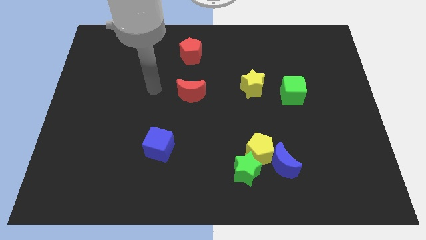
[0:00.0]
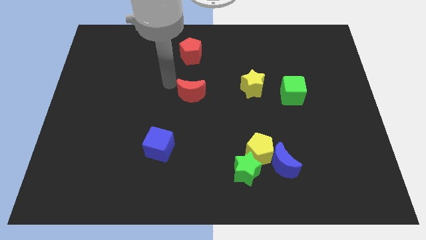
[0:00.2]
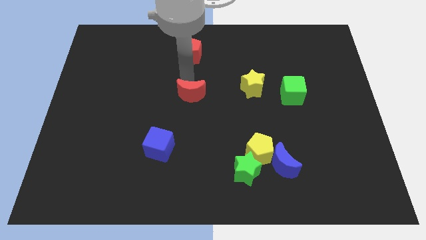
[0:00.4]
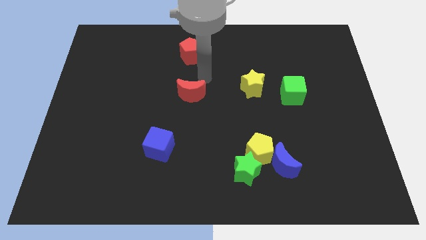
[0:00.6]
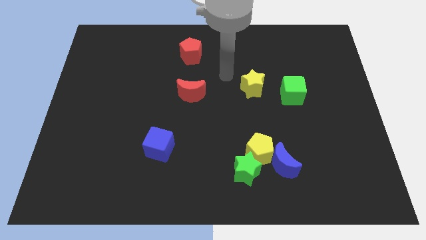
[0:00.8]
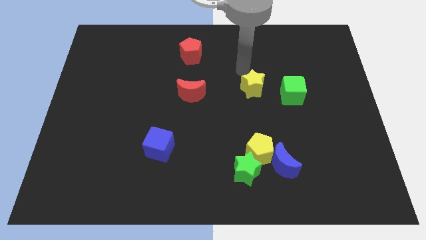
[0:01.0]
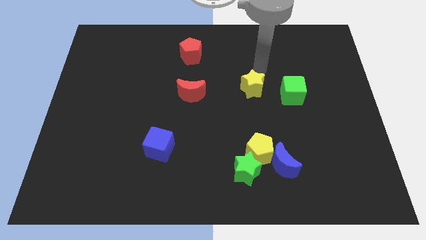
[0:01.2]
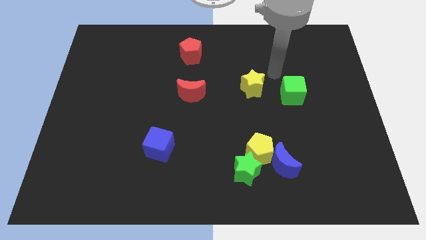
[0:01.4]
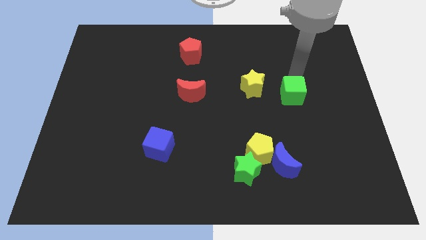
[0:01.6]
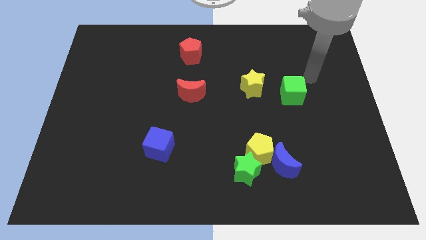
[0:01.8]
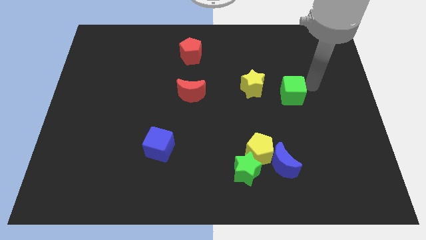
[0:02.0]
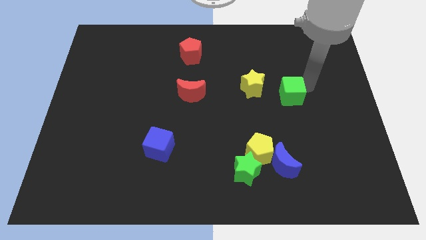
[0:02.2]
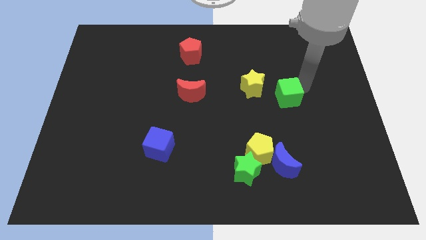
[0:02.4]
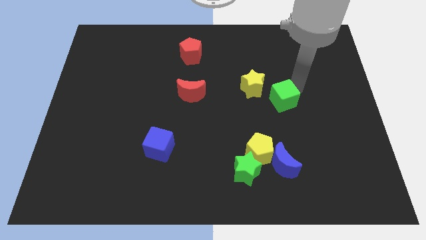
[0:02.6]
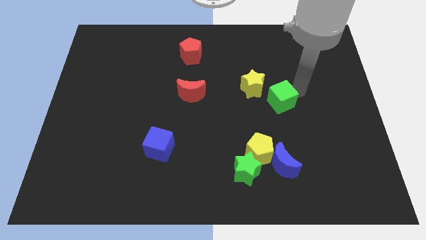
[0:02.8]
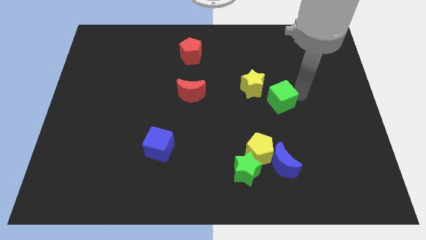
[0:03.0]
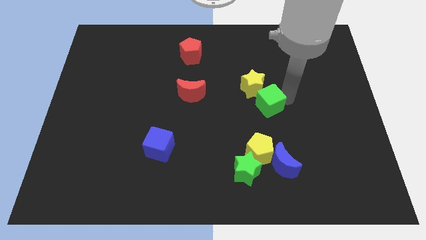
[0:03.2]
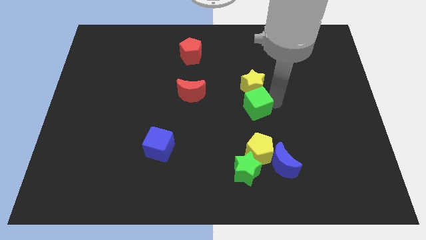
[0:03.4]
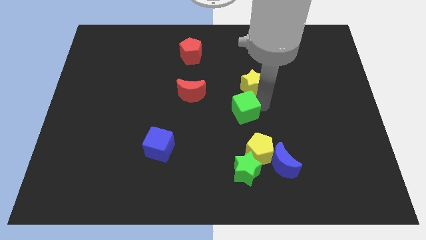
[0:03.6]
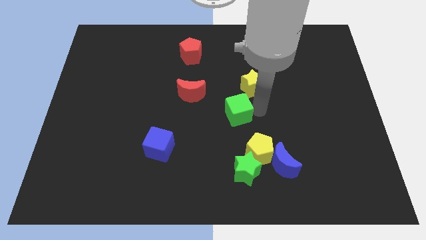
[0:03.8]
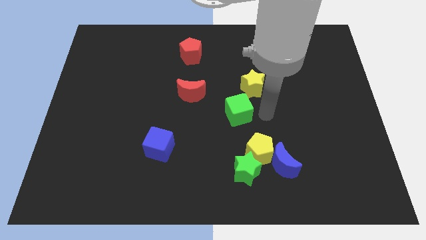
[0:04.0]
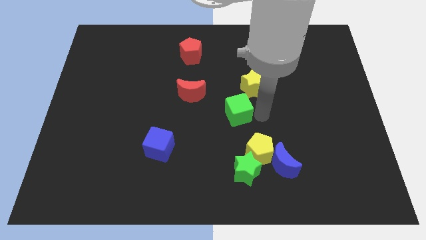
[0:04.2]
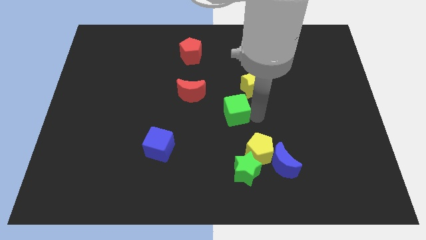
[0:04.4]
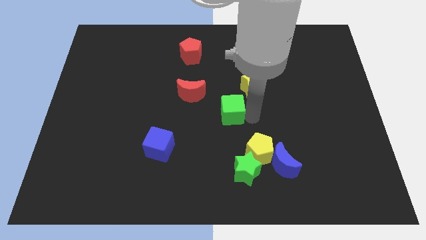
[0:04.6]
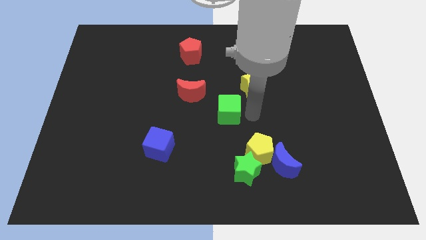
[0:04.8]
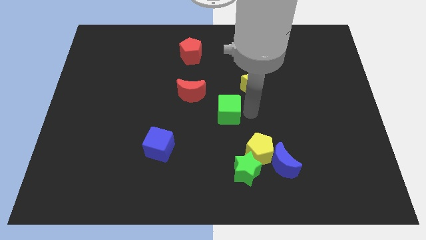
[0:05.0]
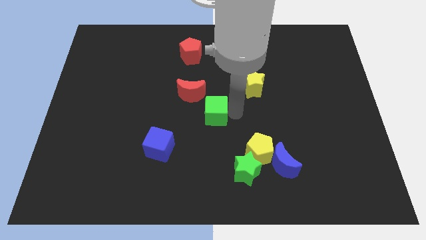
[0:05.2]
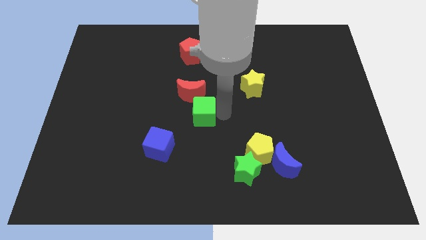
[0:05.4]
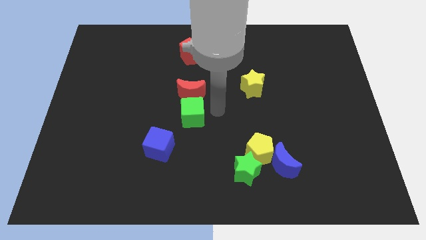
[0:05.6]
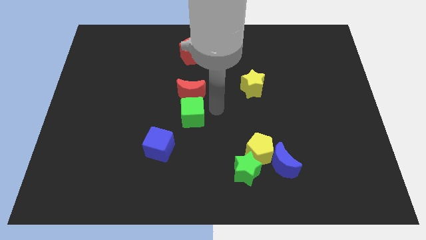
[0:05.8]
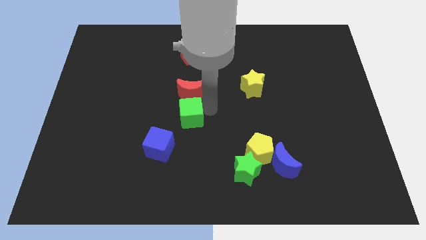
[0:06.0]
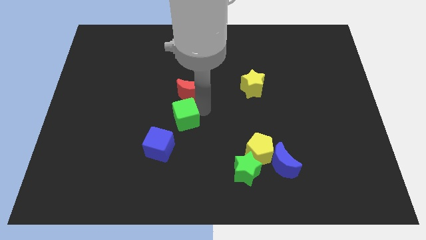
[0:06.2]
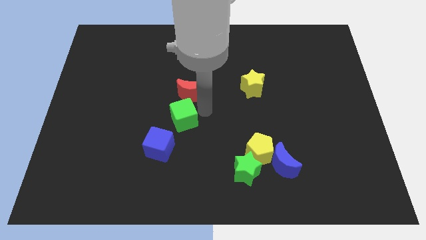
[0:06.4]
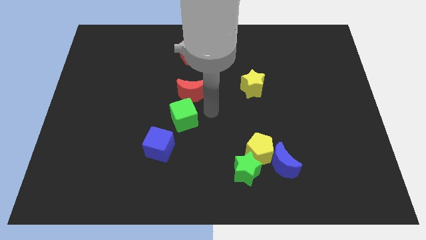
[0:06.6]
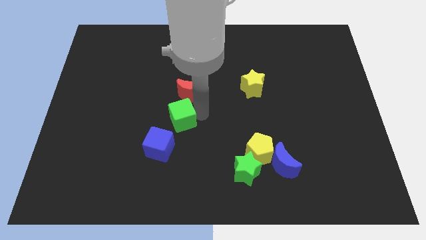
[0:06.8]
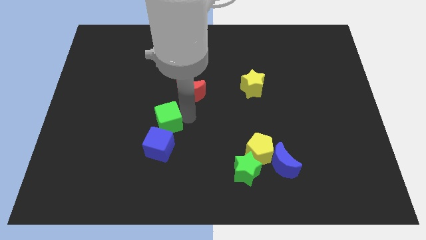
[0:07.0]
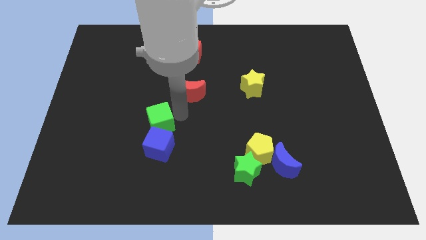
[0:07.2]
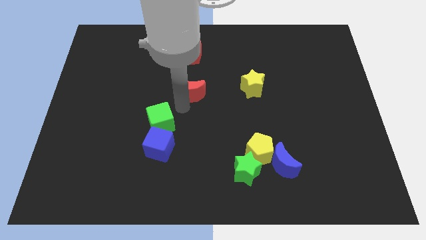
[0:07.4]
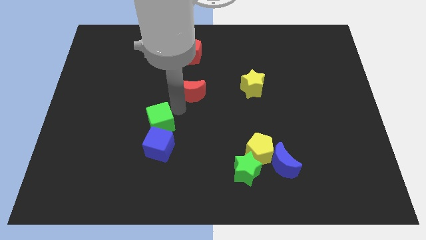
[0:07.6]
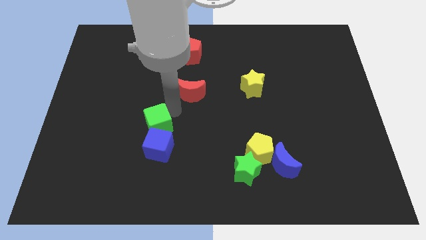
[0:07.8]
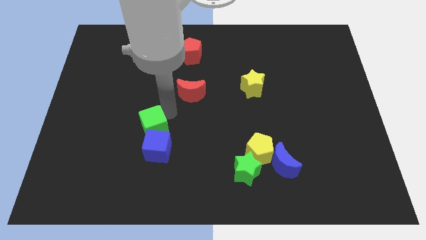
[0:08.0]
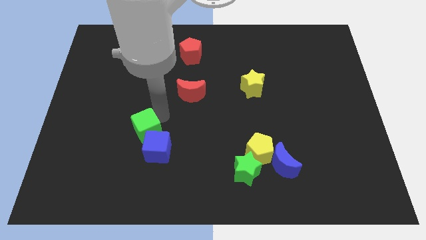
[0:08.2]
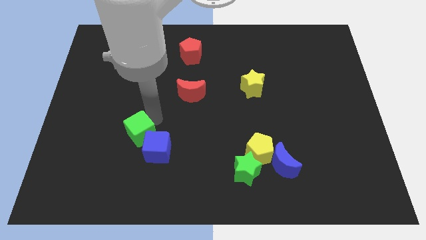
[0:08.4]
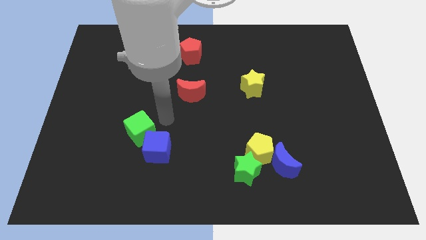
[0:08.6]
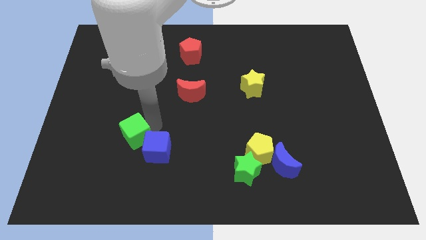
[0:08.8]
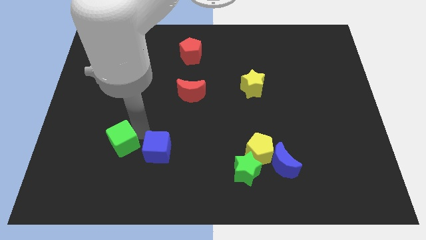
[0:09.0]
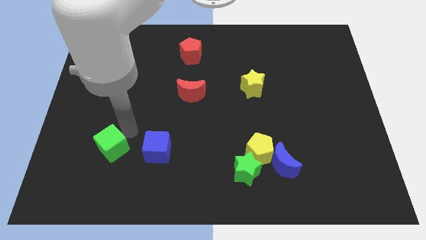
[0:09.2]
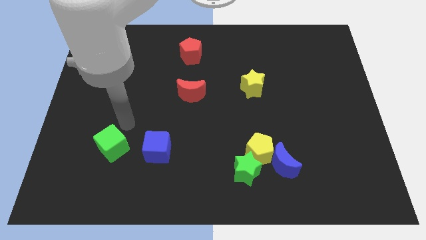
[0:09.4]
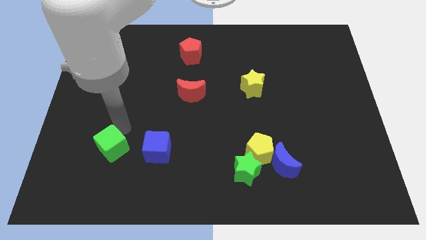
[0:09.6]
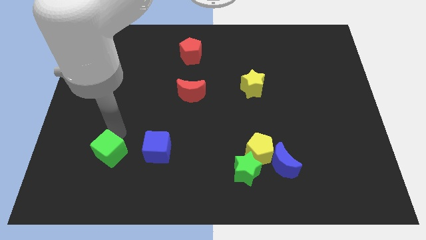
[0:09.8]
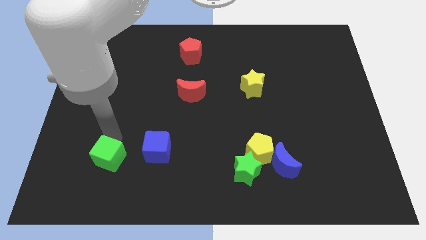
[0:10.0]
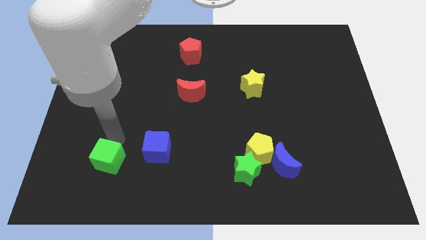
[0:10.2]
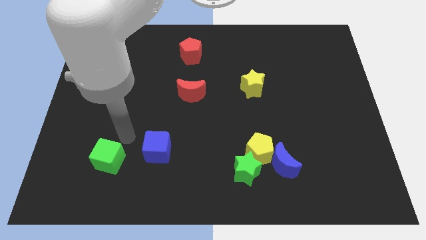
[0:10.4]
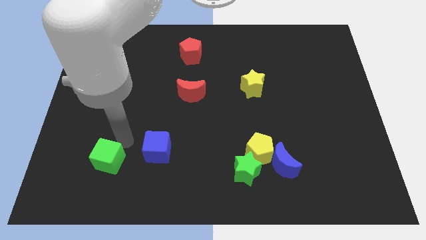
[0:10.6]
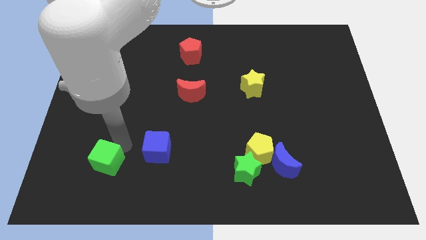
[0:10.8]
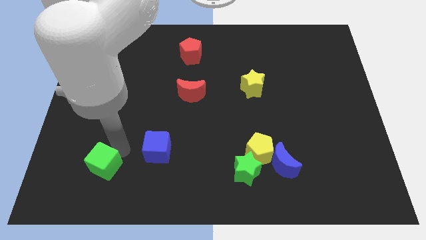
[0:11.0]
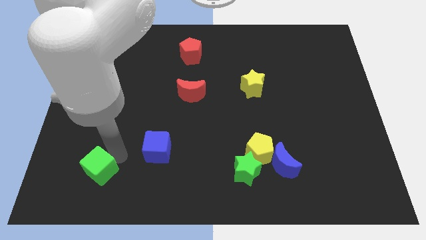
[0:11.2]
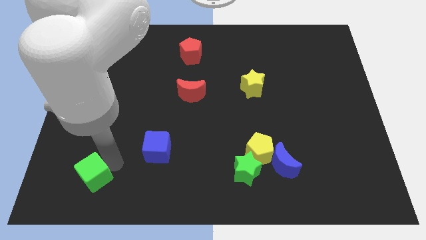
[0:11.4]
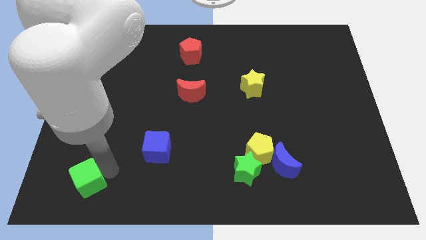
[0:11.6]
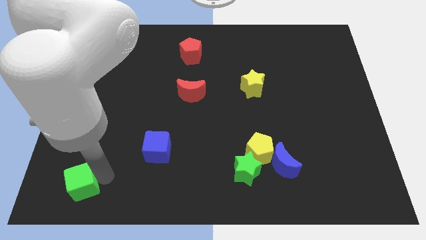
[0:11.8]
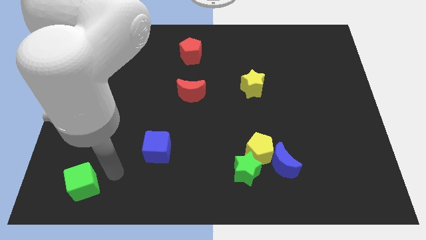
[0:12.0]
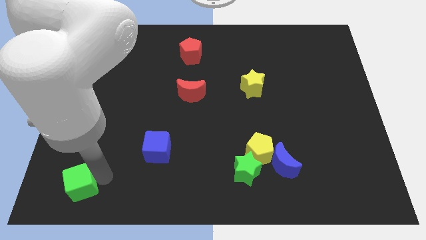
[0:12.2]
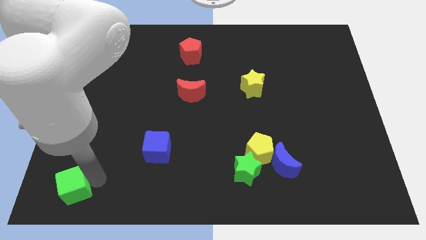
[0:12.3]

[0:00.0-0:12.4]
slide the green cube to the bottom left of the board
